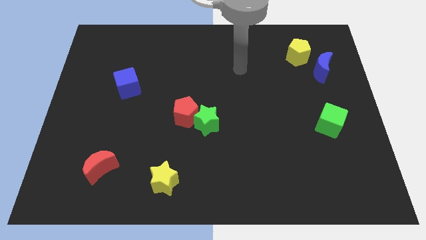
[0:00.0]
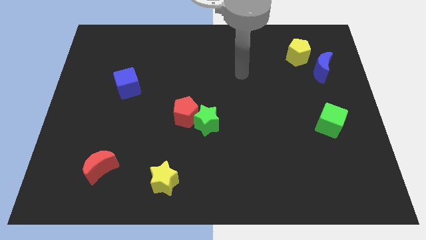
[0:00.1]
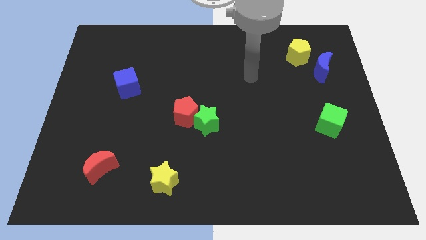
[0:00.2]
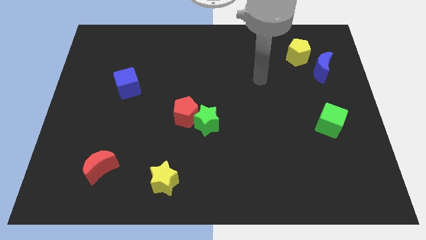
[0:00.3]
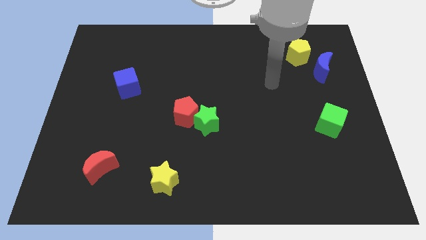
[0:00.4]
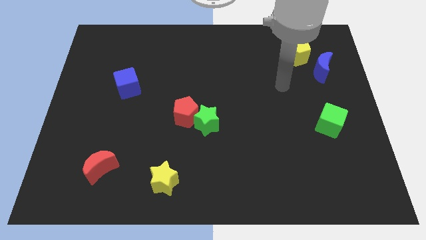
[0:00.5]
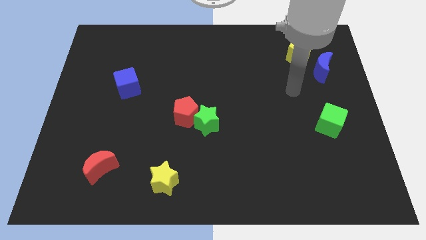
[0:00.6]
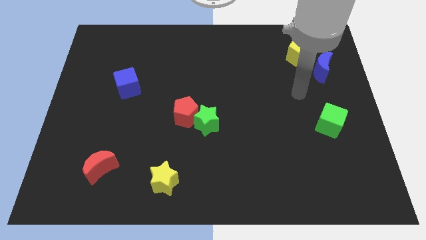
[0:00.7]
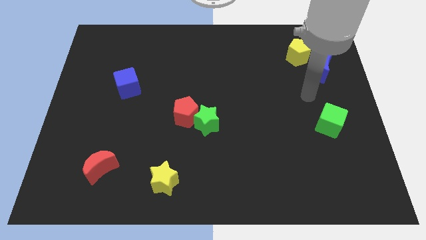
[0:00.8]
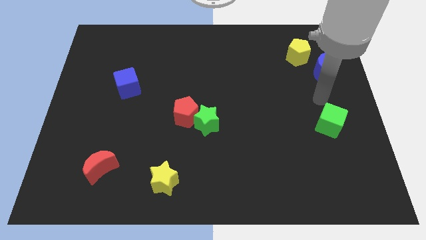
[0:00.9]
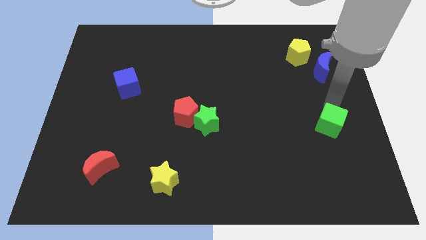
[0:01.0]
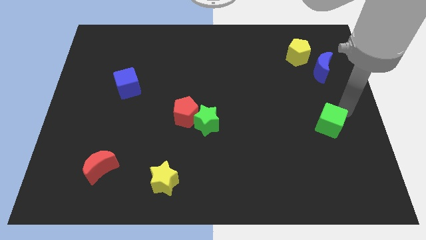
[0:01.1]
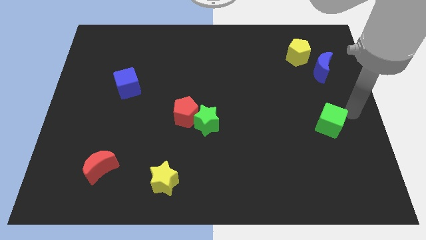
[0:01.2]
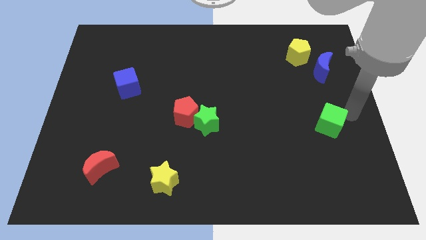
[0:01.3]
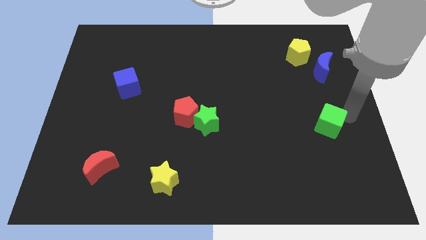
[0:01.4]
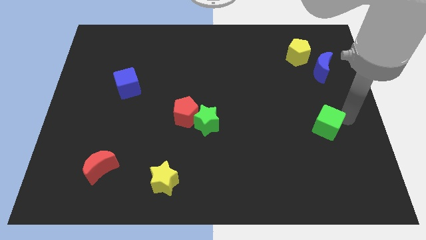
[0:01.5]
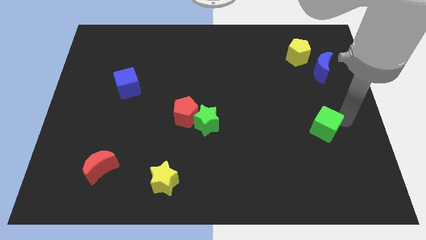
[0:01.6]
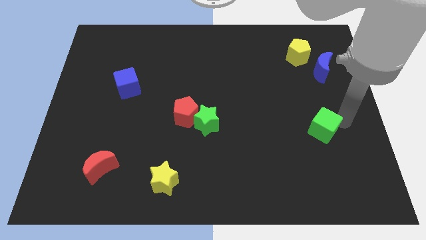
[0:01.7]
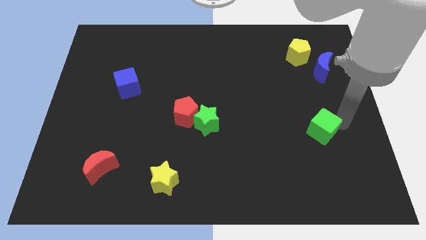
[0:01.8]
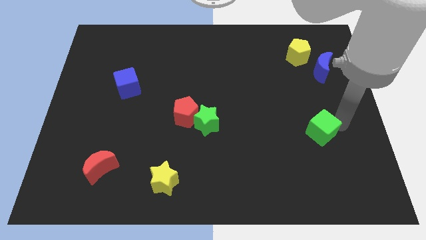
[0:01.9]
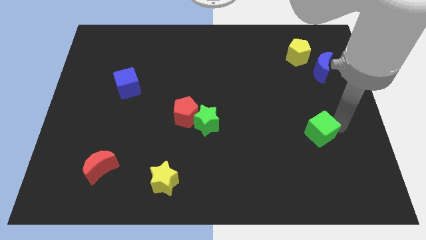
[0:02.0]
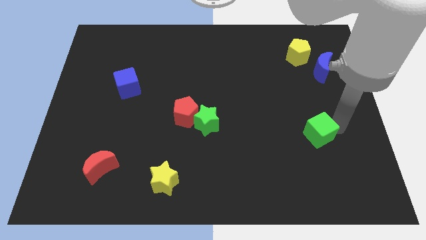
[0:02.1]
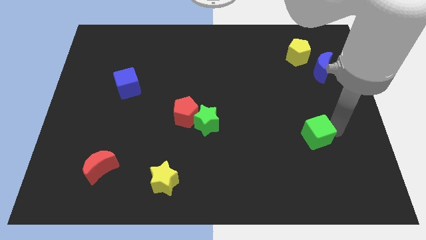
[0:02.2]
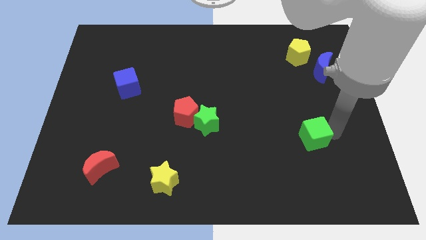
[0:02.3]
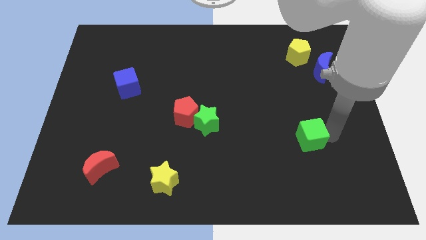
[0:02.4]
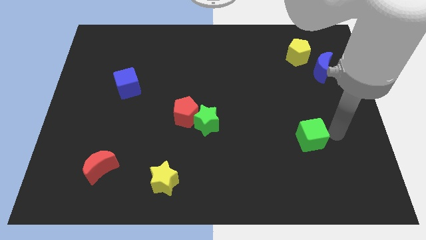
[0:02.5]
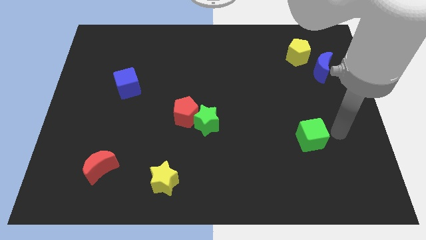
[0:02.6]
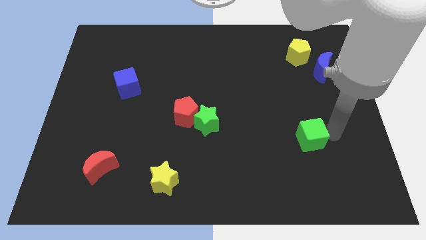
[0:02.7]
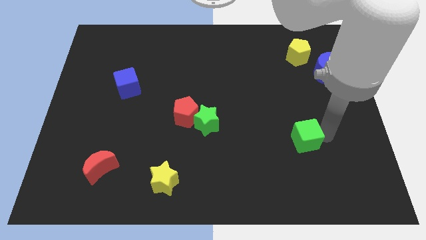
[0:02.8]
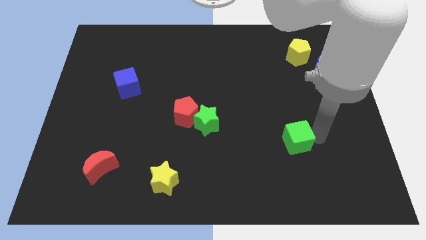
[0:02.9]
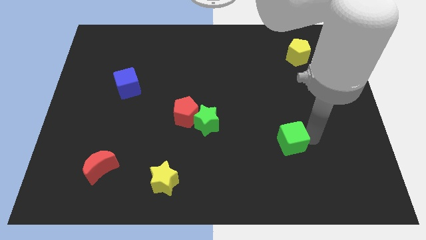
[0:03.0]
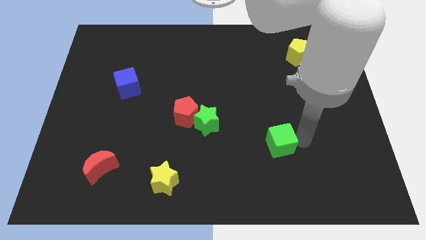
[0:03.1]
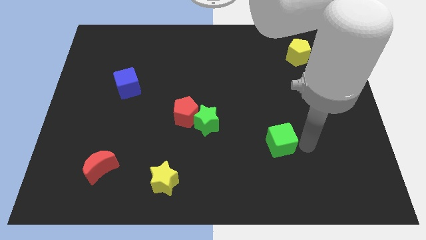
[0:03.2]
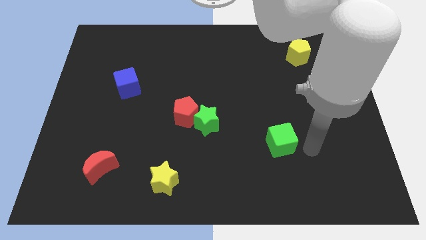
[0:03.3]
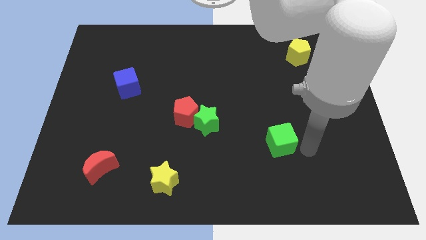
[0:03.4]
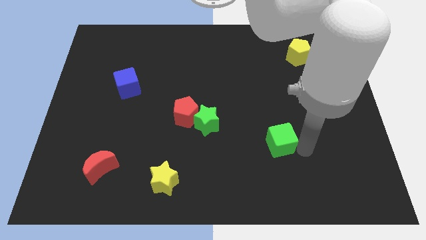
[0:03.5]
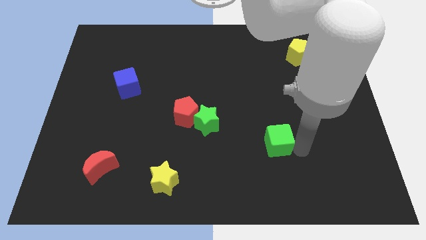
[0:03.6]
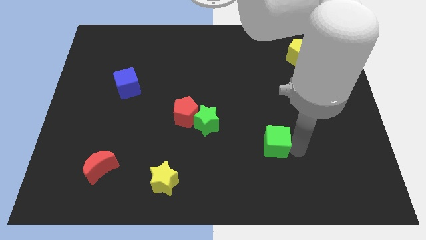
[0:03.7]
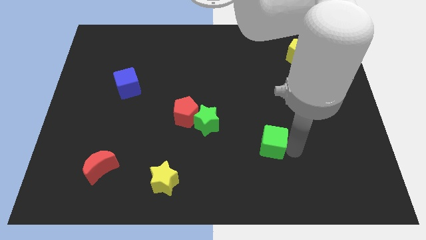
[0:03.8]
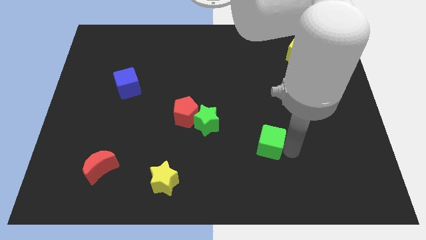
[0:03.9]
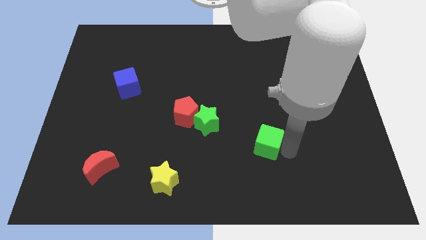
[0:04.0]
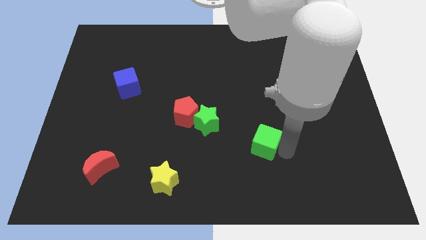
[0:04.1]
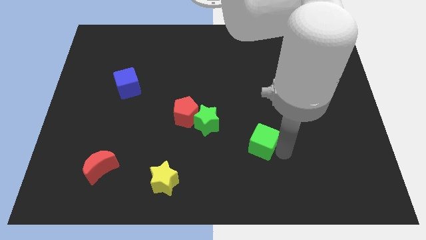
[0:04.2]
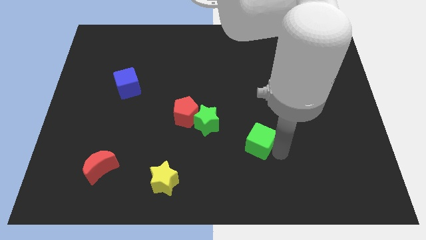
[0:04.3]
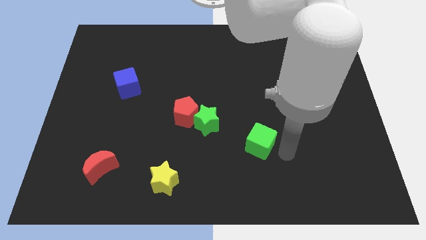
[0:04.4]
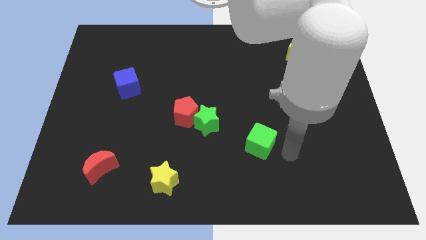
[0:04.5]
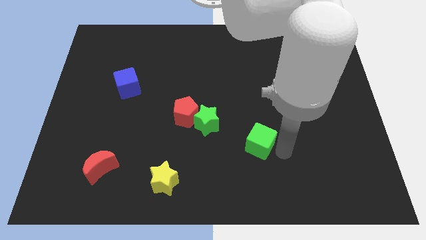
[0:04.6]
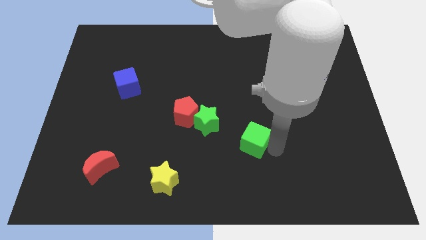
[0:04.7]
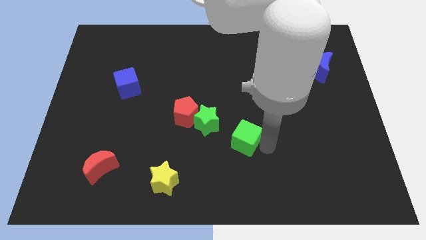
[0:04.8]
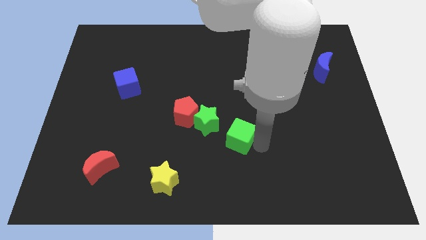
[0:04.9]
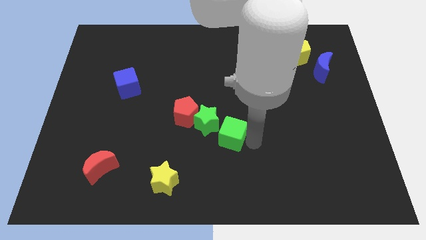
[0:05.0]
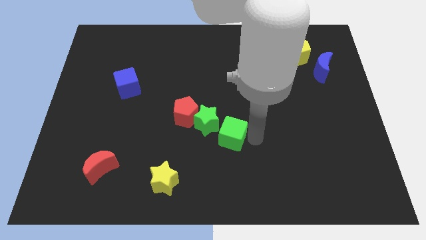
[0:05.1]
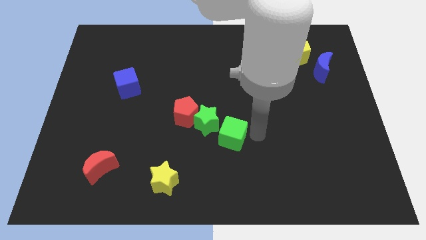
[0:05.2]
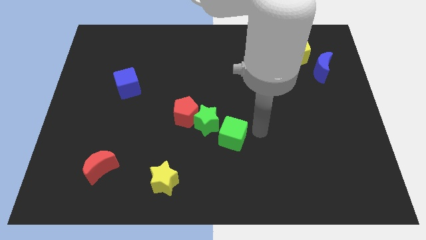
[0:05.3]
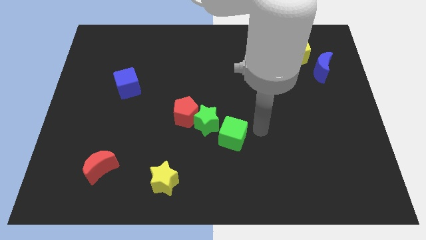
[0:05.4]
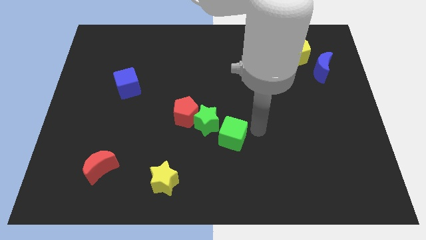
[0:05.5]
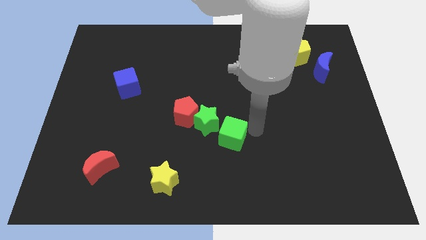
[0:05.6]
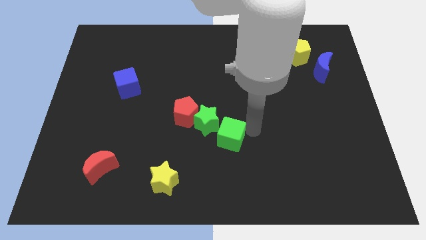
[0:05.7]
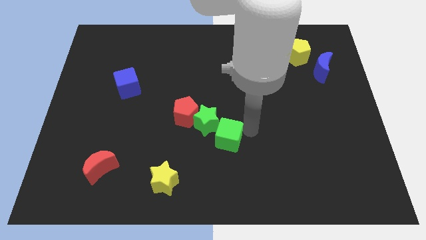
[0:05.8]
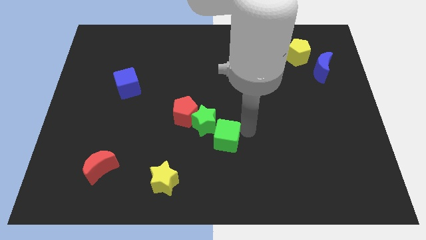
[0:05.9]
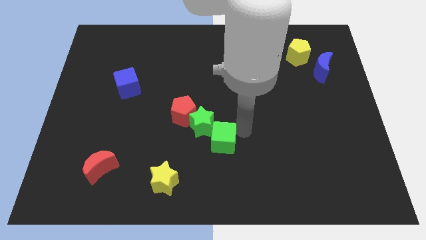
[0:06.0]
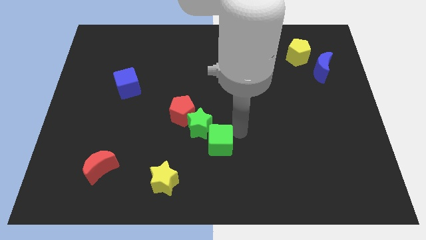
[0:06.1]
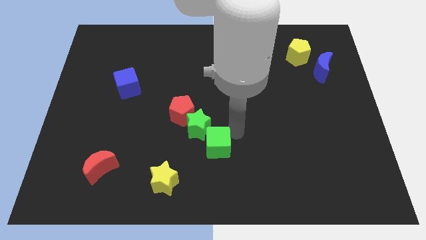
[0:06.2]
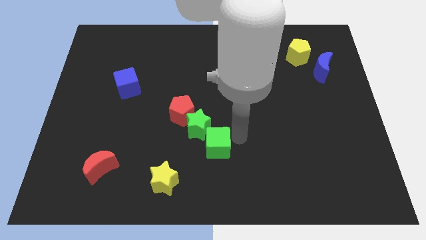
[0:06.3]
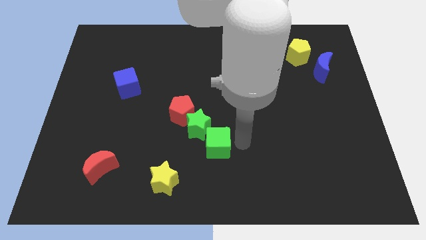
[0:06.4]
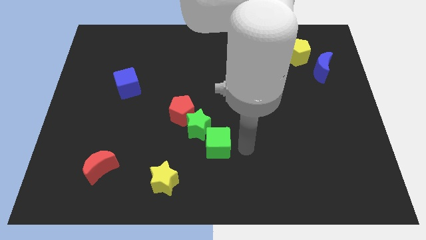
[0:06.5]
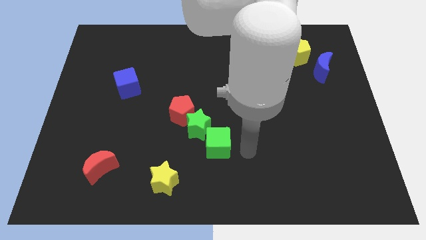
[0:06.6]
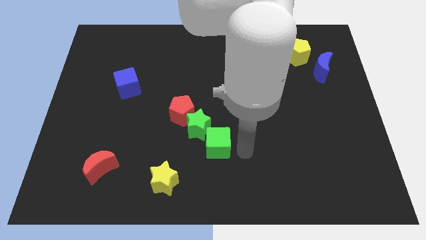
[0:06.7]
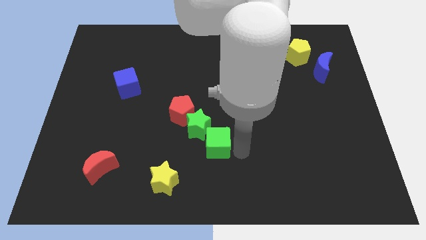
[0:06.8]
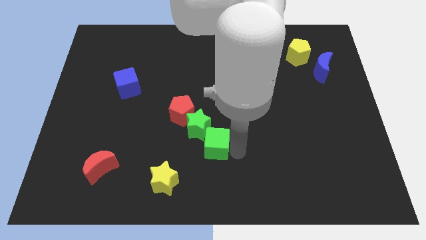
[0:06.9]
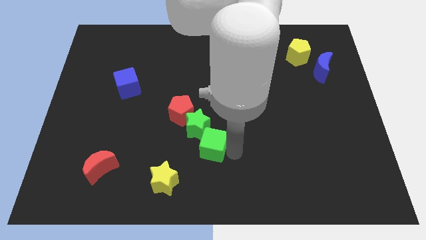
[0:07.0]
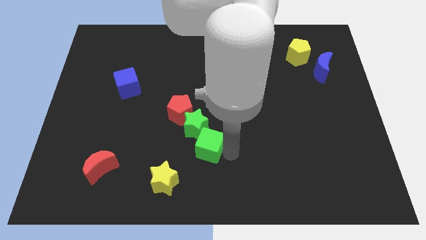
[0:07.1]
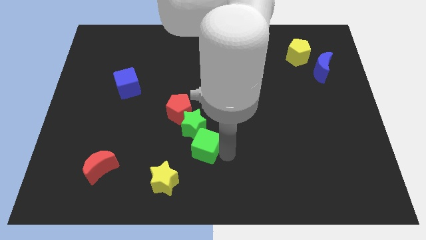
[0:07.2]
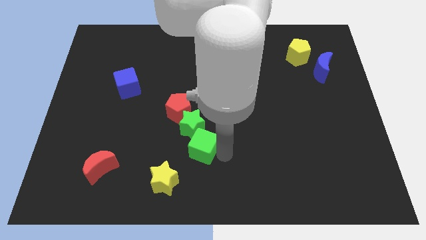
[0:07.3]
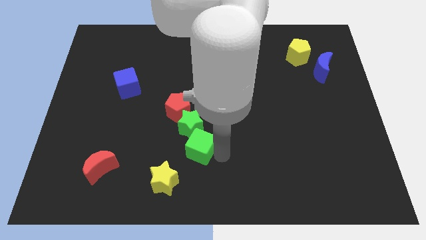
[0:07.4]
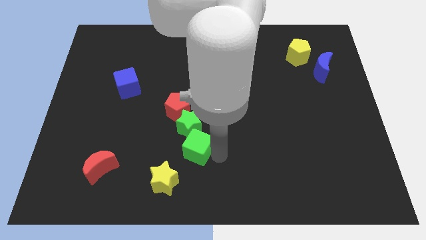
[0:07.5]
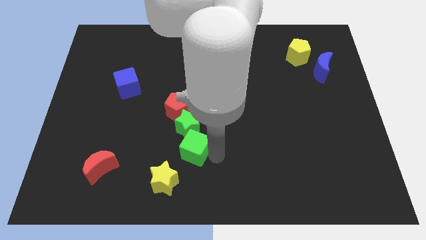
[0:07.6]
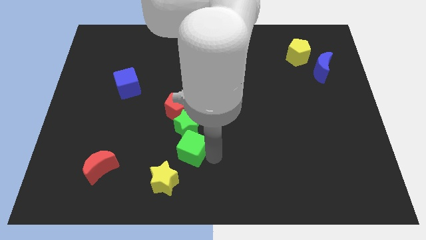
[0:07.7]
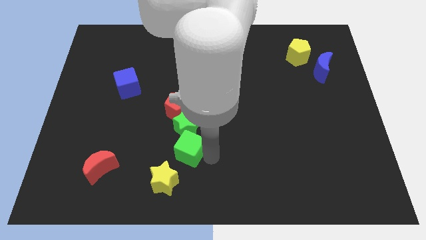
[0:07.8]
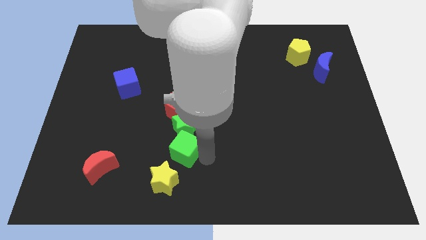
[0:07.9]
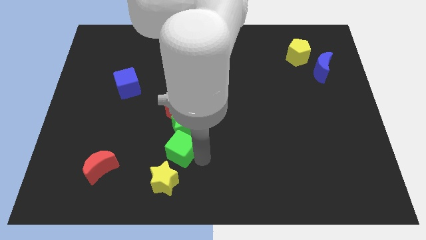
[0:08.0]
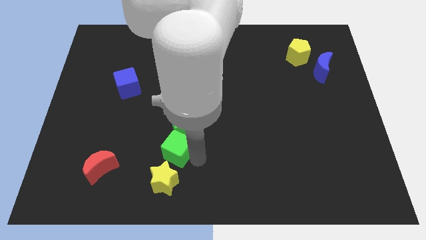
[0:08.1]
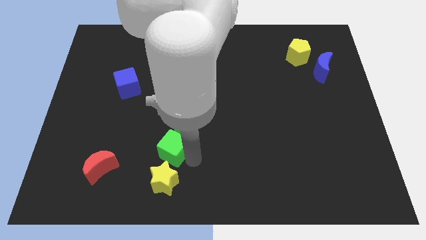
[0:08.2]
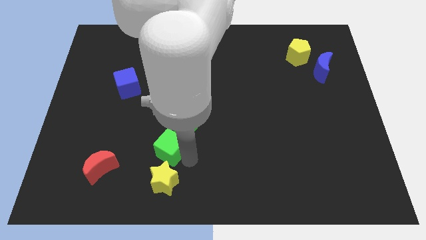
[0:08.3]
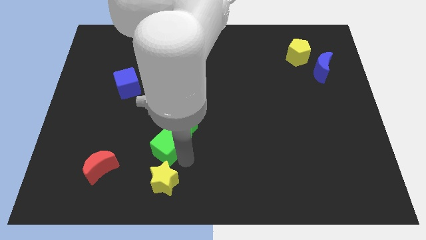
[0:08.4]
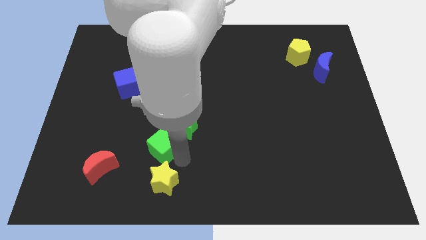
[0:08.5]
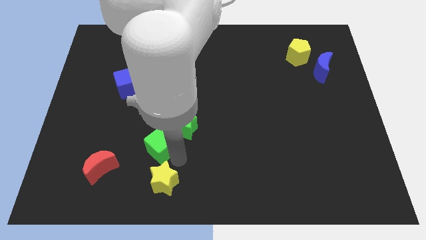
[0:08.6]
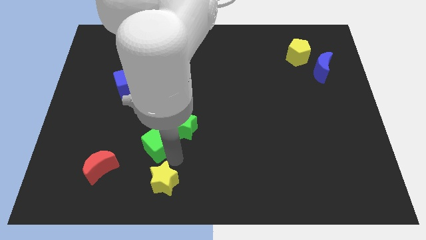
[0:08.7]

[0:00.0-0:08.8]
push the green cube to the bottom left side of the red pentagon
